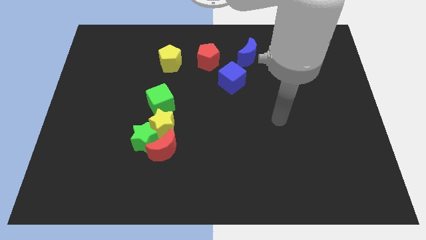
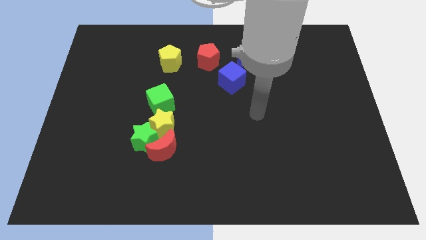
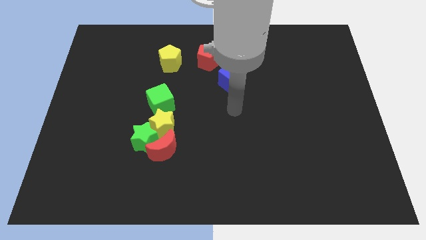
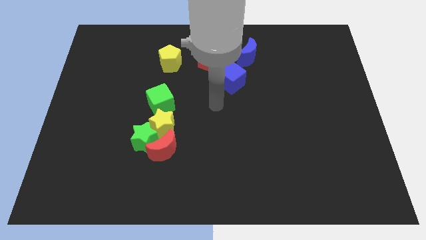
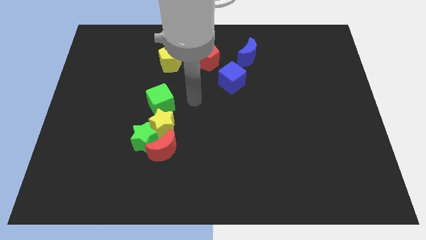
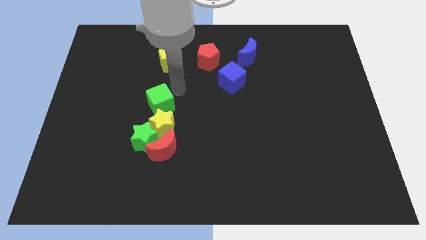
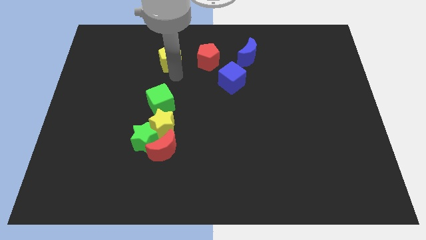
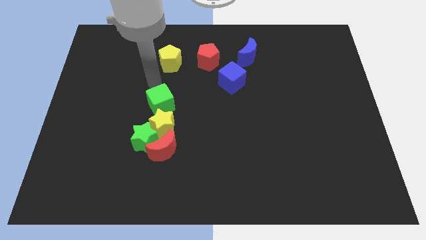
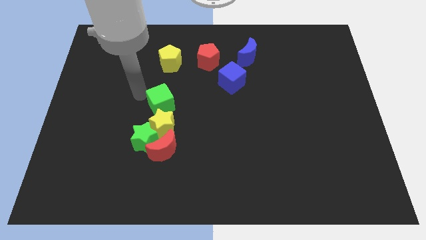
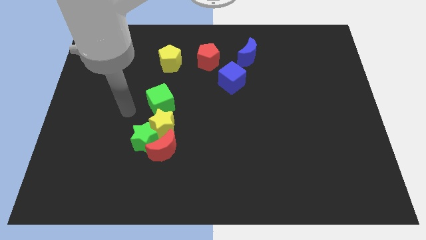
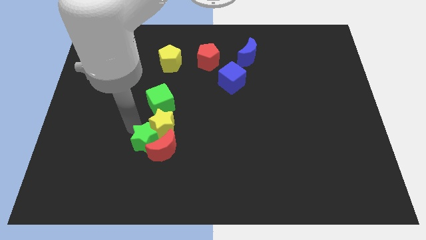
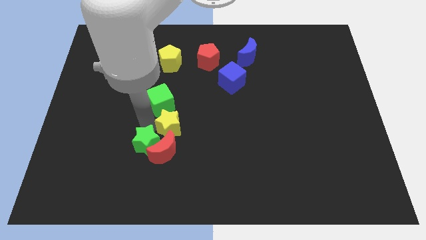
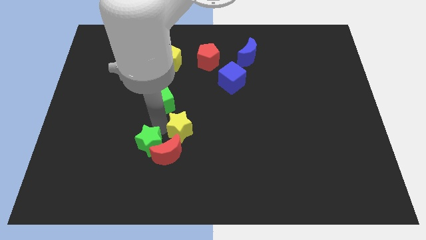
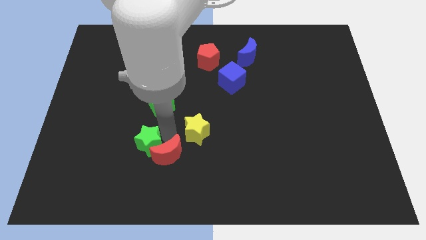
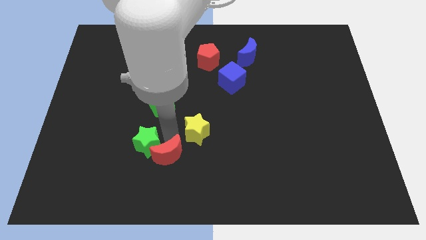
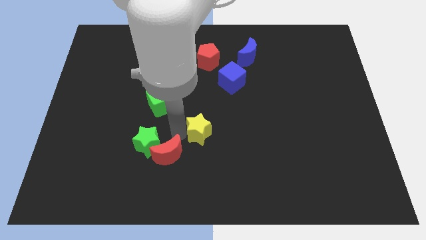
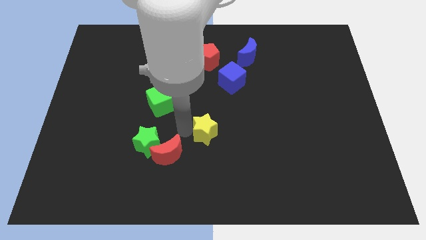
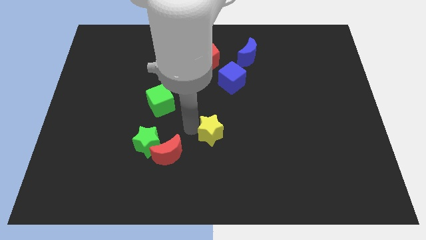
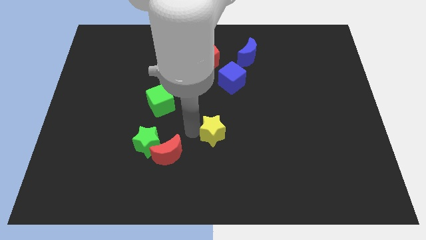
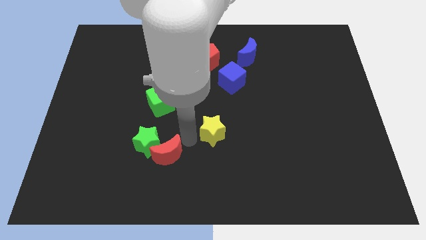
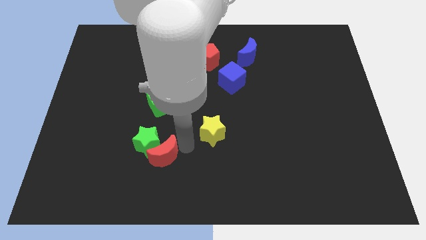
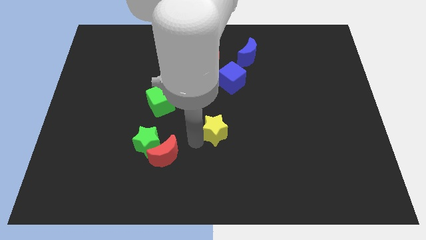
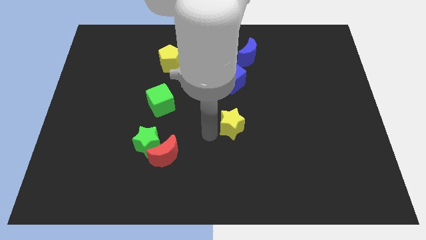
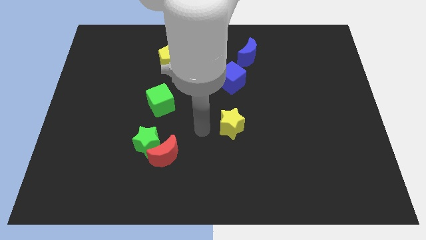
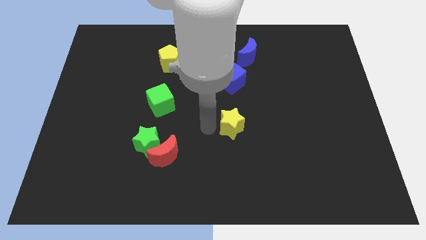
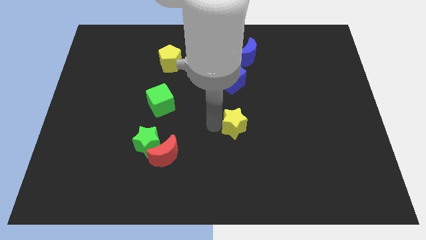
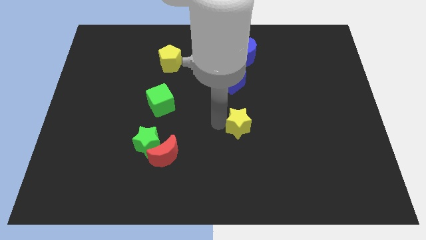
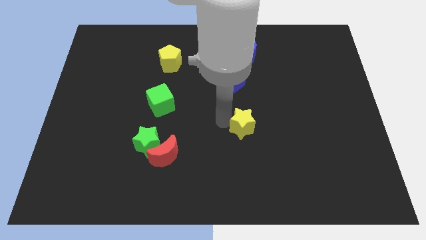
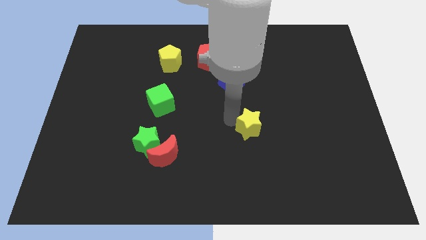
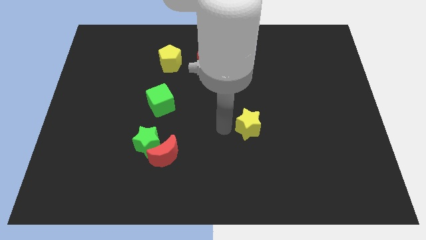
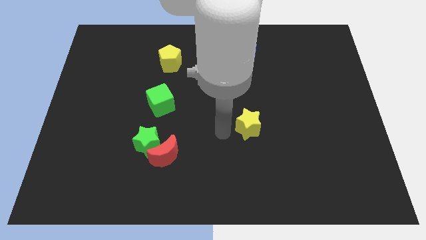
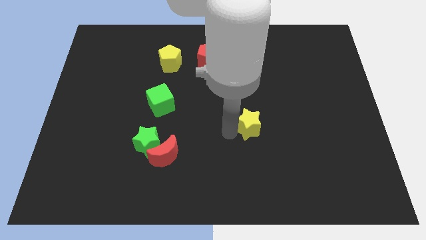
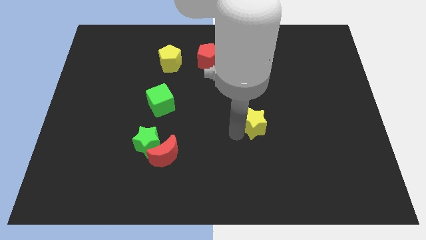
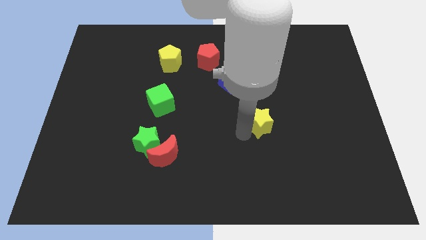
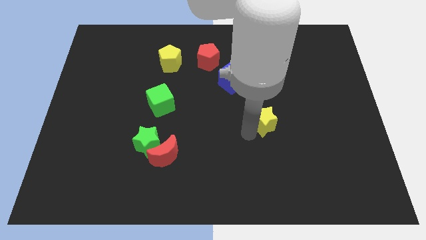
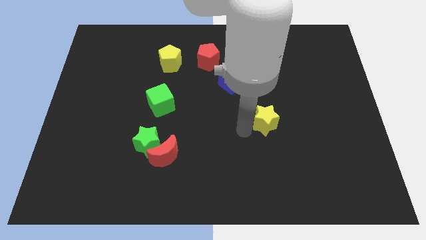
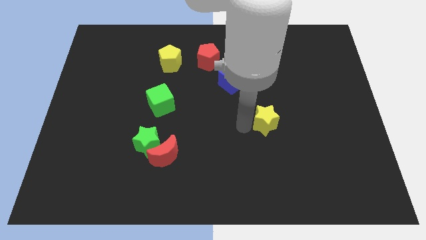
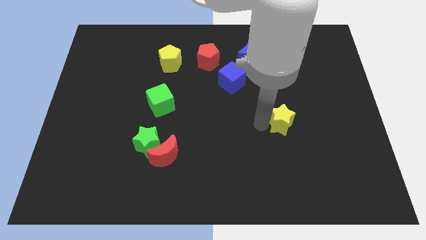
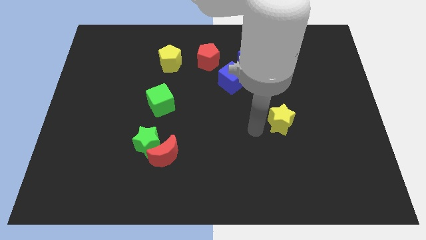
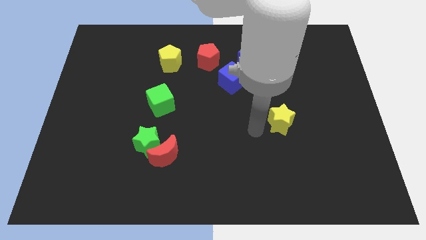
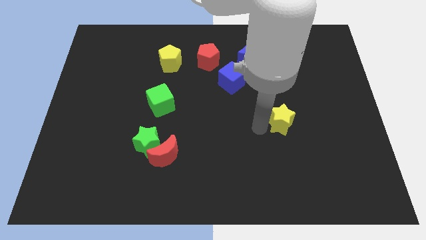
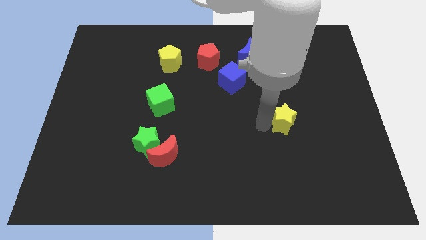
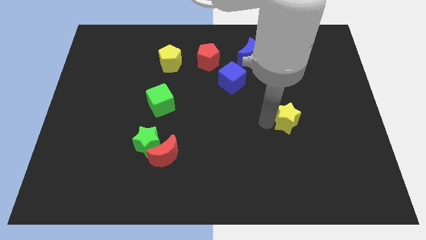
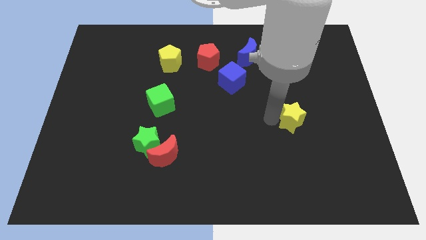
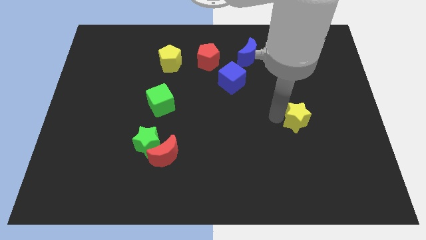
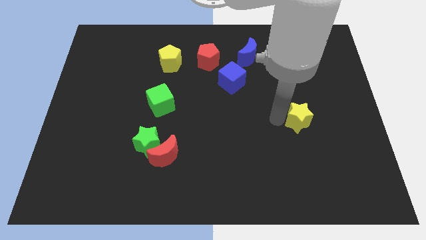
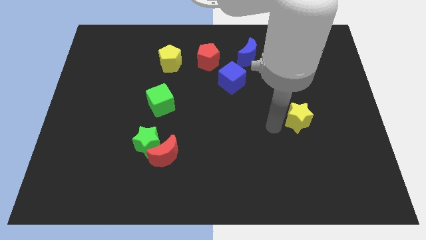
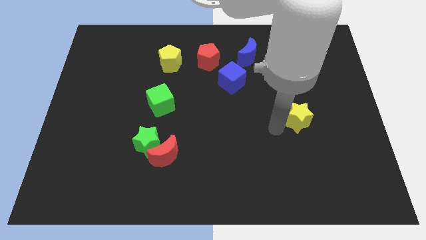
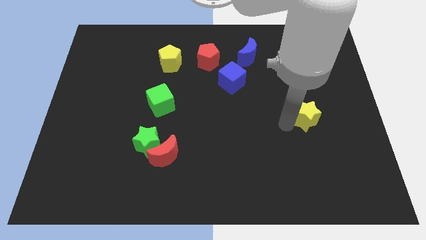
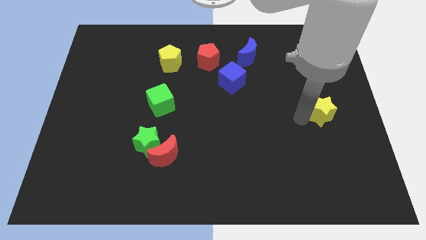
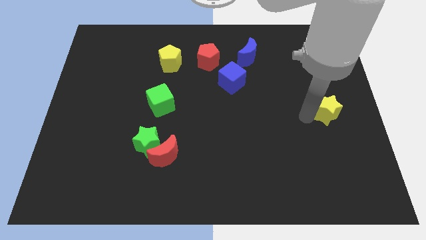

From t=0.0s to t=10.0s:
put the yellow star to the right side

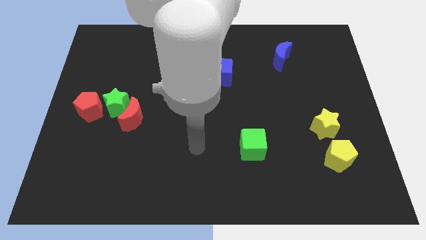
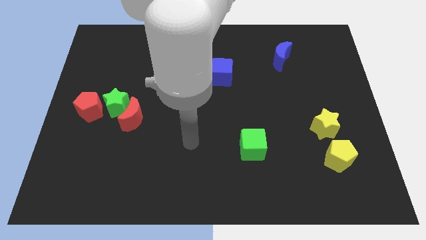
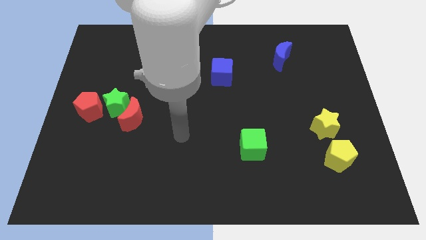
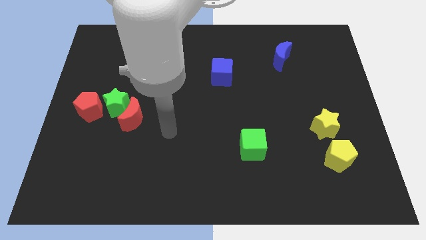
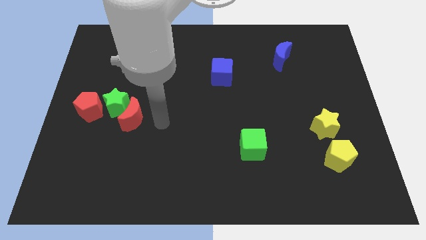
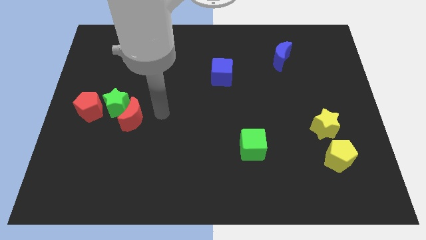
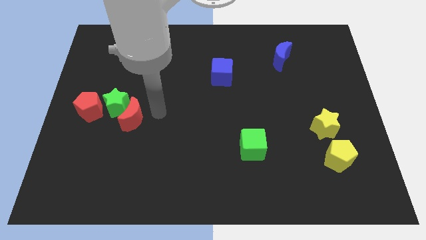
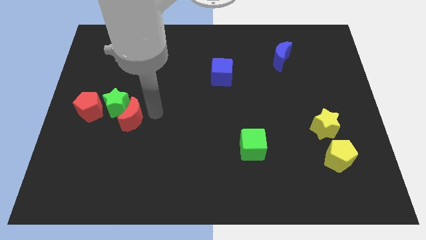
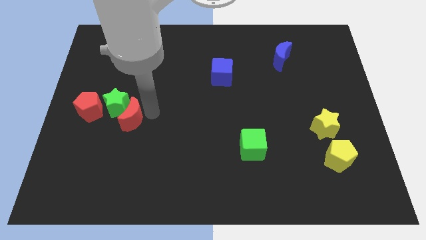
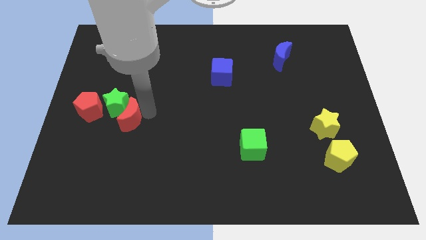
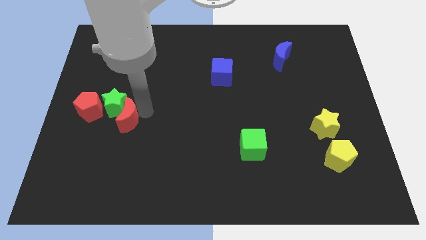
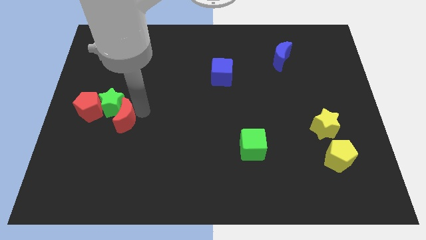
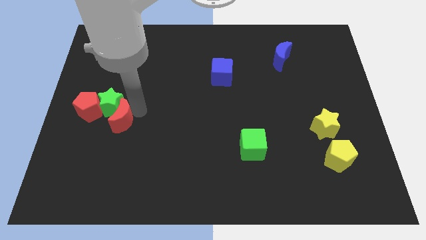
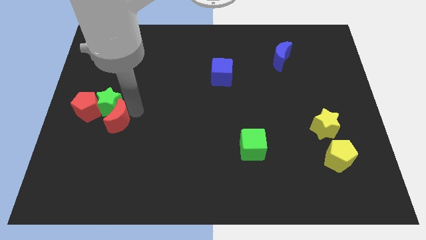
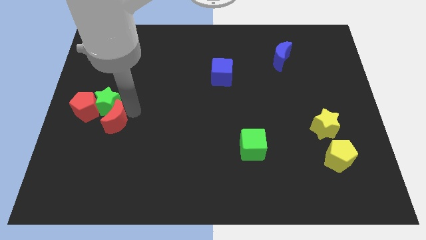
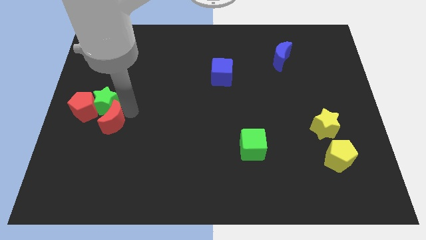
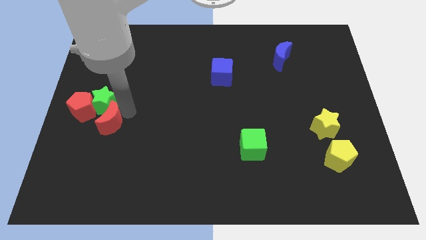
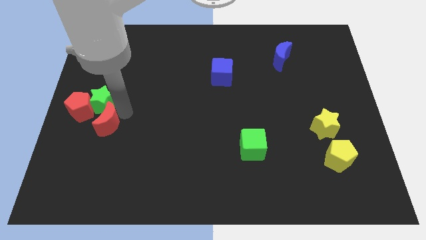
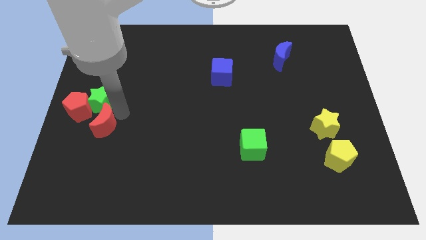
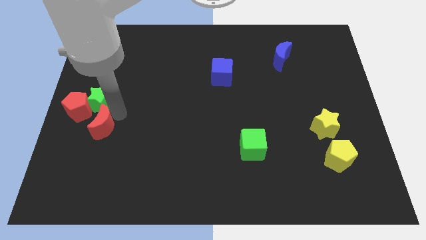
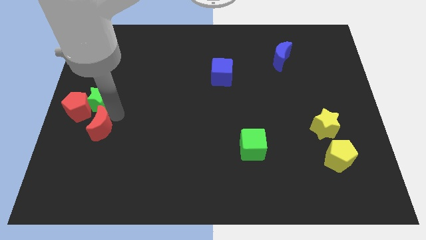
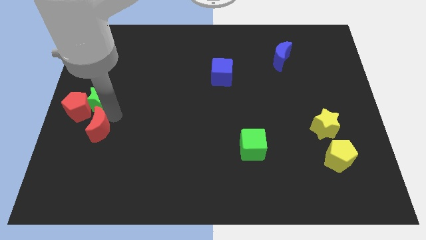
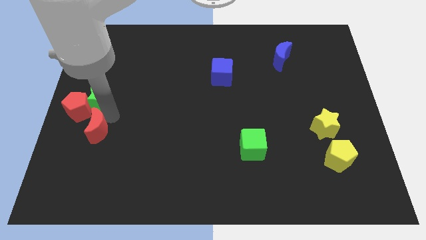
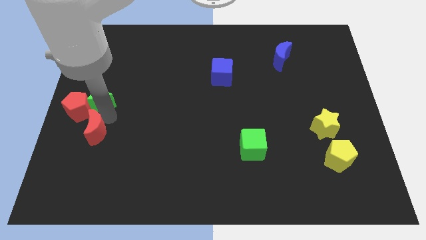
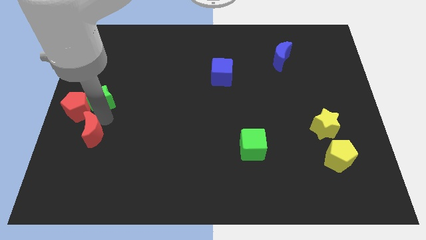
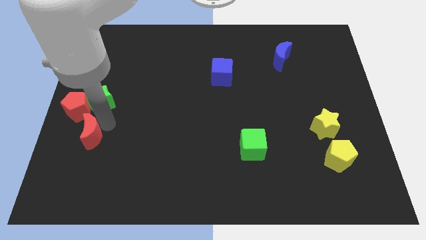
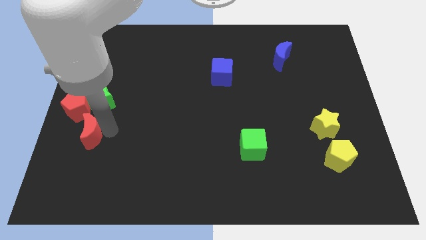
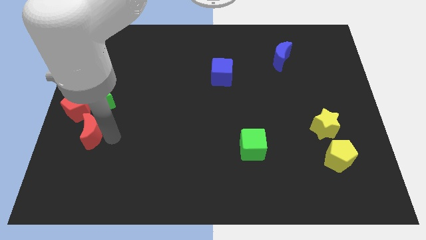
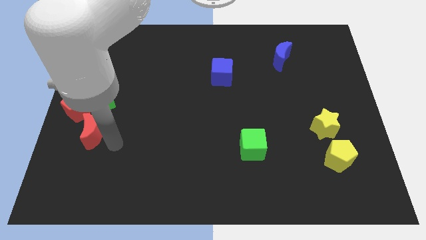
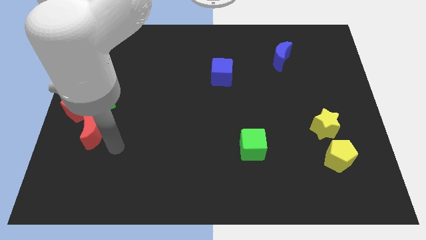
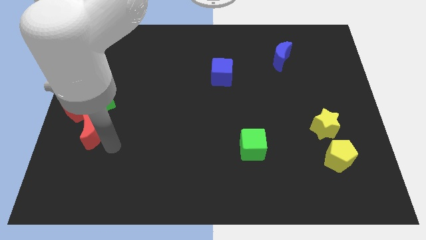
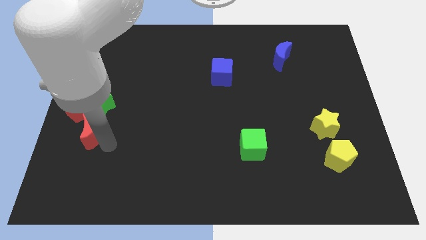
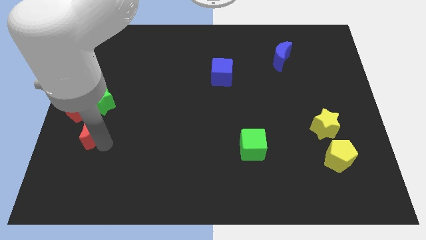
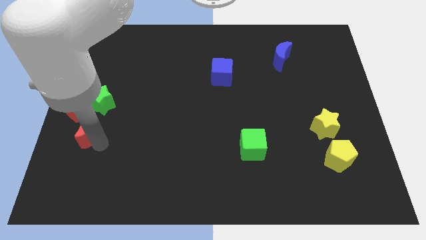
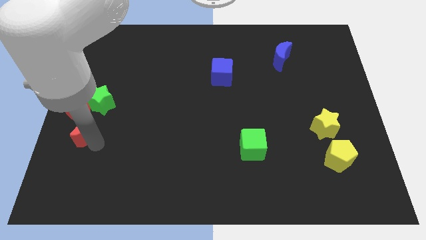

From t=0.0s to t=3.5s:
move the red moon to the left side of the board
